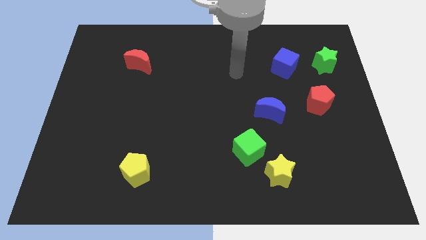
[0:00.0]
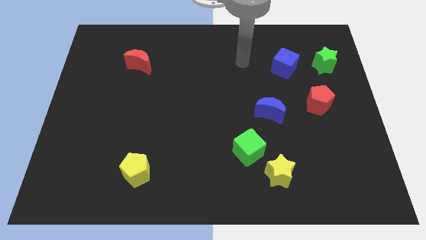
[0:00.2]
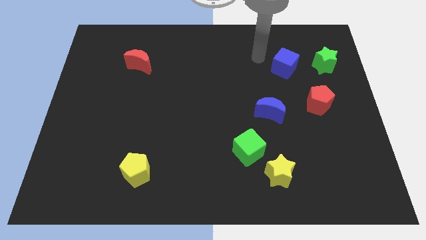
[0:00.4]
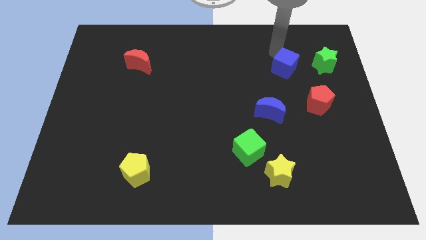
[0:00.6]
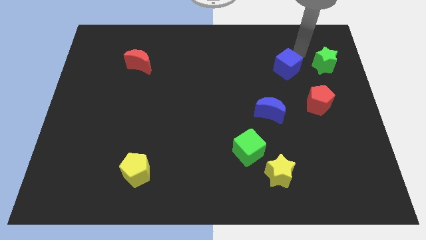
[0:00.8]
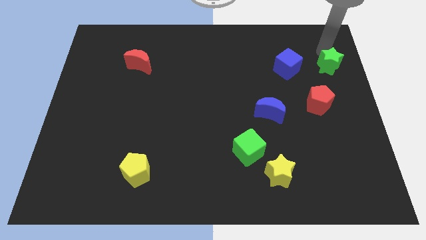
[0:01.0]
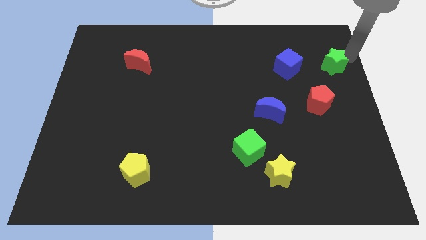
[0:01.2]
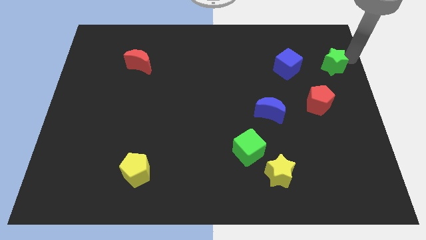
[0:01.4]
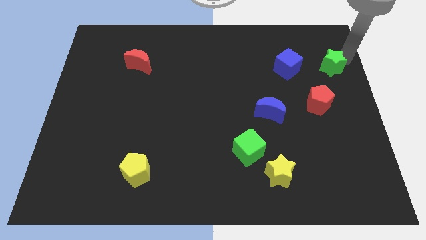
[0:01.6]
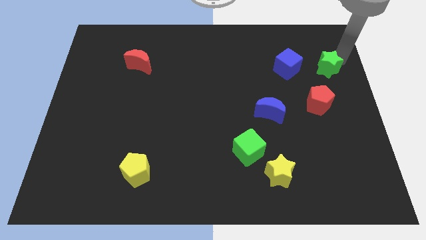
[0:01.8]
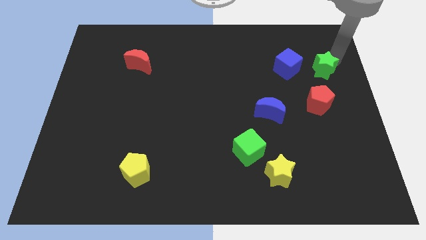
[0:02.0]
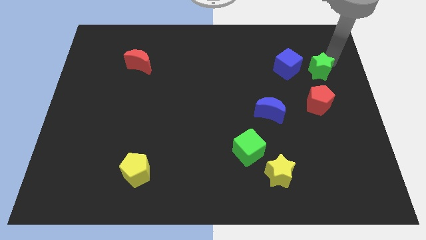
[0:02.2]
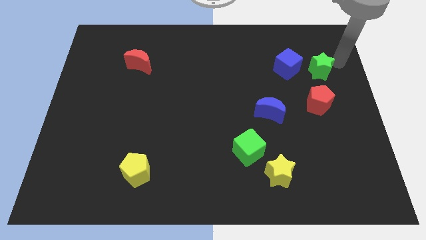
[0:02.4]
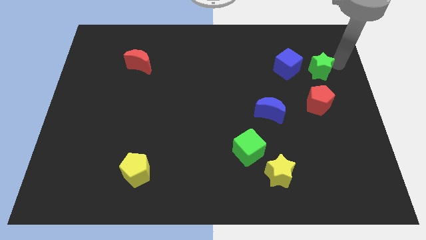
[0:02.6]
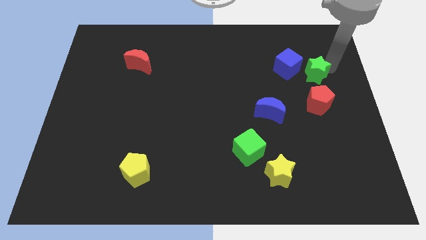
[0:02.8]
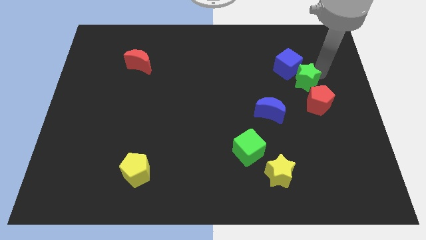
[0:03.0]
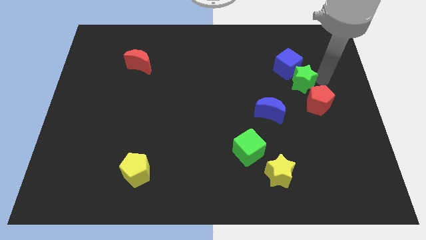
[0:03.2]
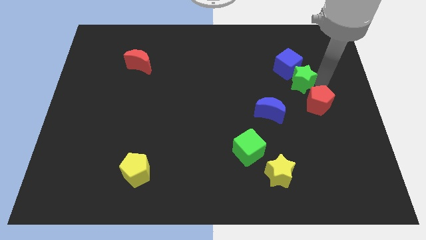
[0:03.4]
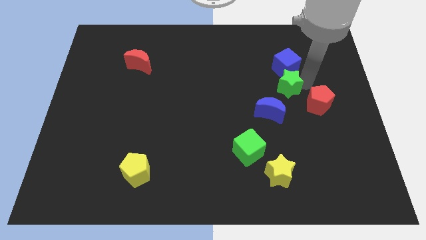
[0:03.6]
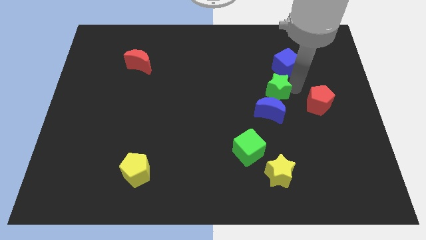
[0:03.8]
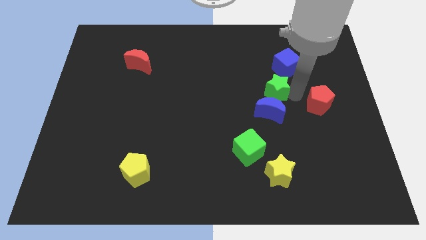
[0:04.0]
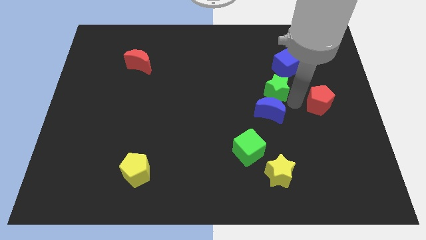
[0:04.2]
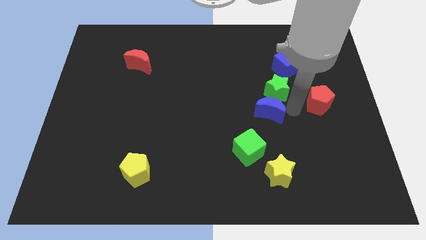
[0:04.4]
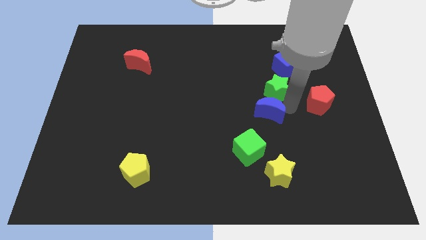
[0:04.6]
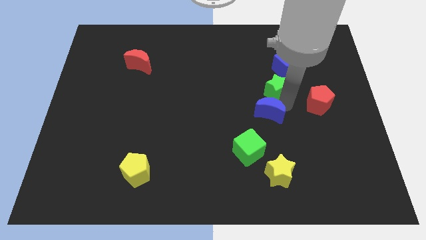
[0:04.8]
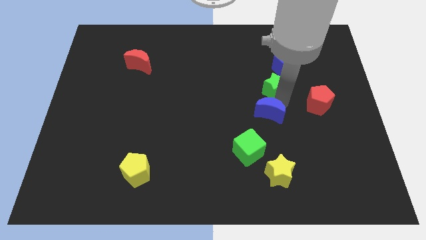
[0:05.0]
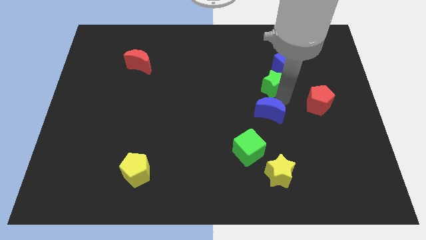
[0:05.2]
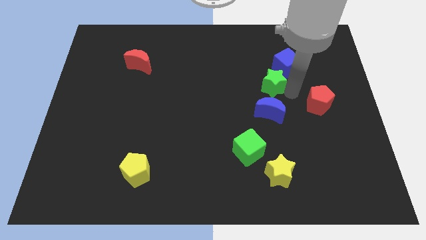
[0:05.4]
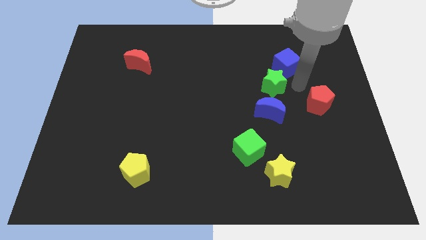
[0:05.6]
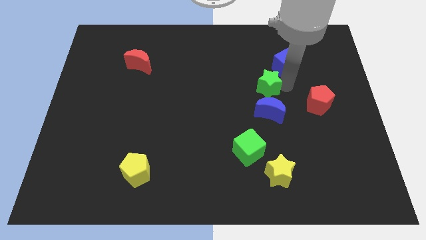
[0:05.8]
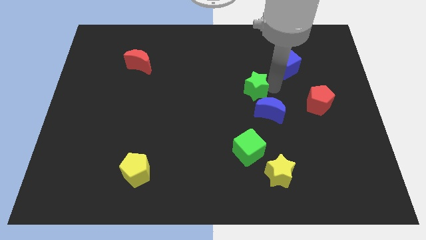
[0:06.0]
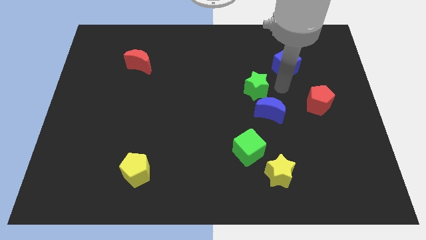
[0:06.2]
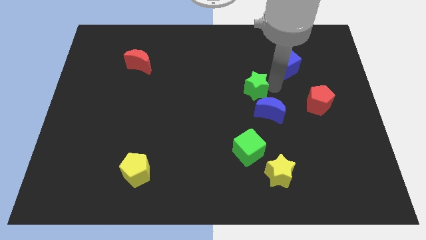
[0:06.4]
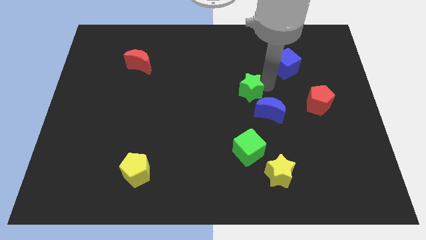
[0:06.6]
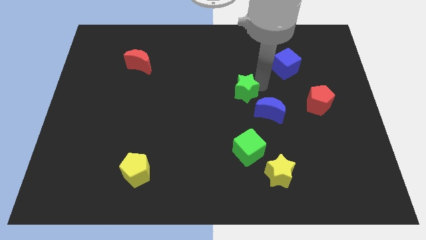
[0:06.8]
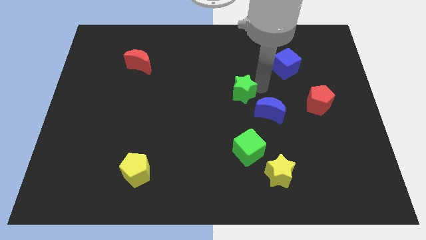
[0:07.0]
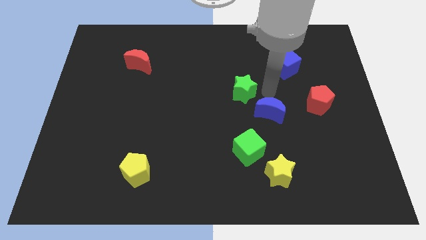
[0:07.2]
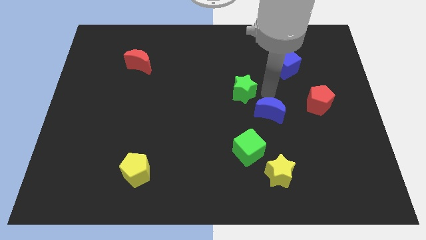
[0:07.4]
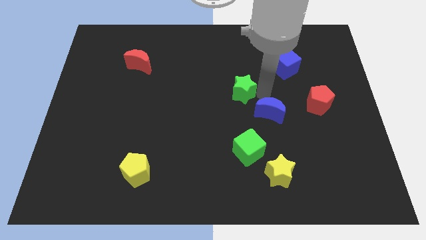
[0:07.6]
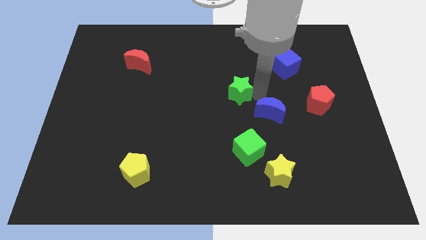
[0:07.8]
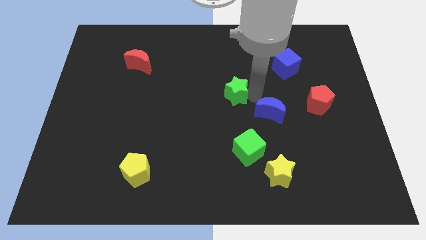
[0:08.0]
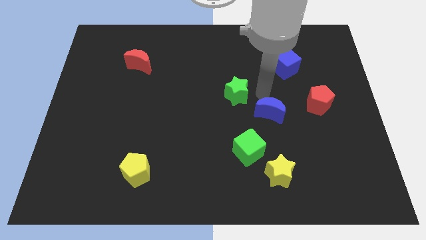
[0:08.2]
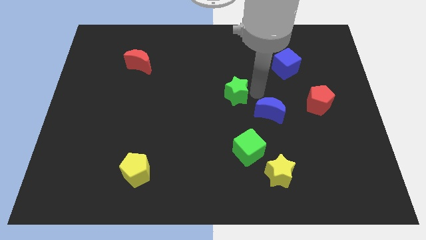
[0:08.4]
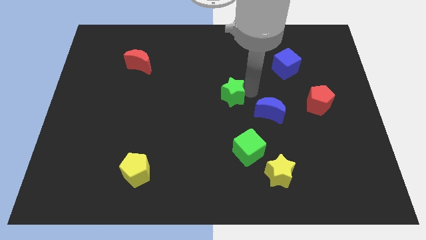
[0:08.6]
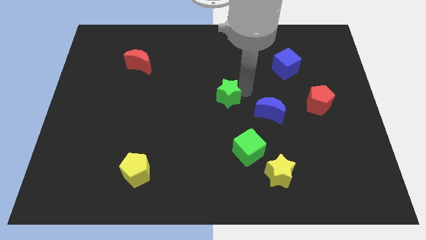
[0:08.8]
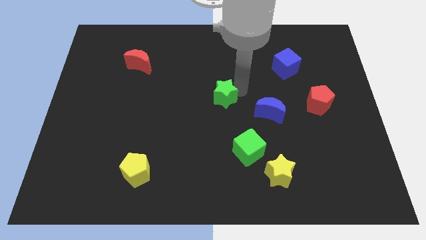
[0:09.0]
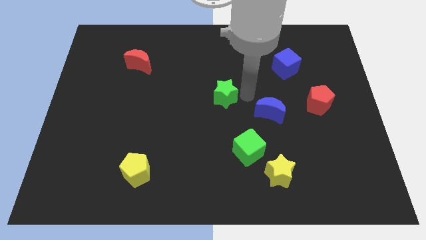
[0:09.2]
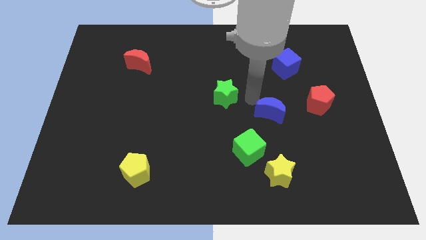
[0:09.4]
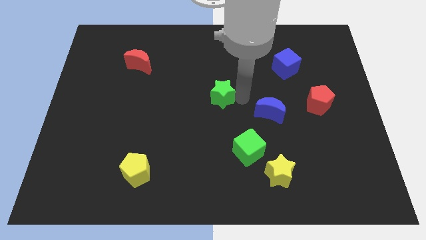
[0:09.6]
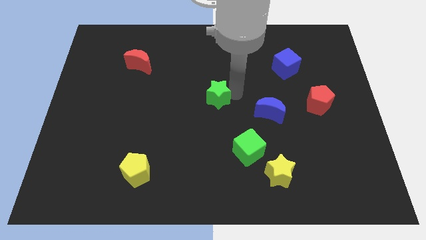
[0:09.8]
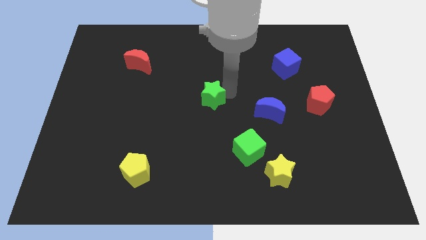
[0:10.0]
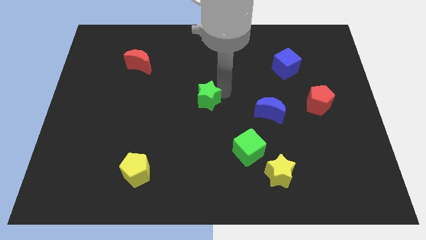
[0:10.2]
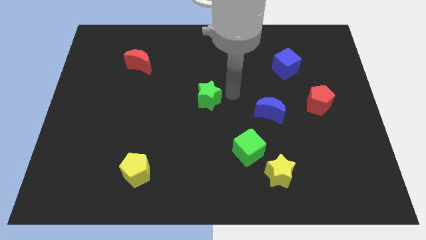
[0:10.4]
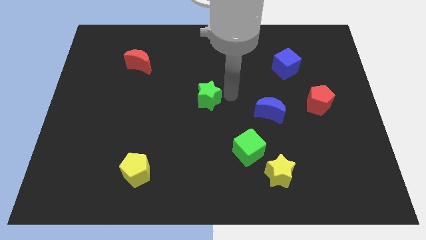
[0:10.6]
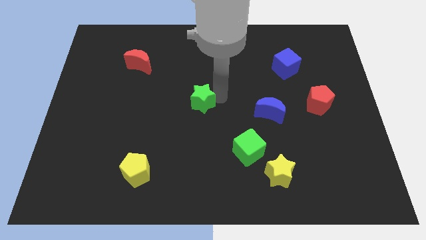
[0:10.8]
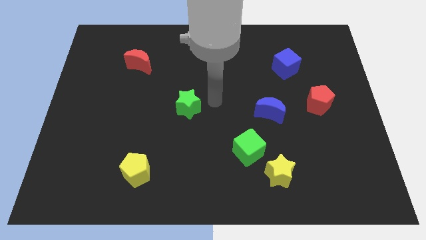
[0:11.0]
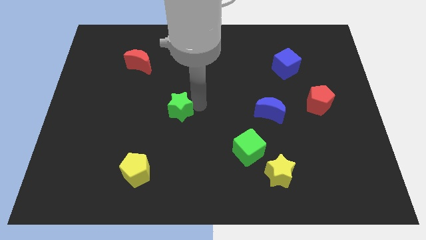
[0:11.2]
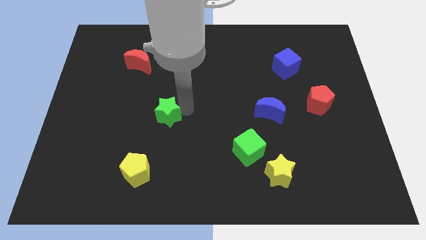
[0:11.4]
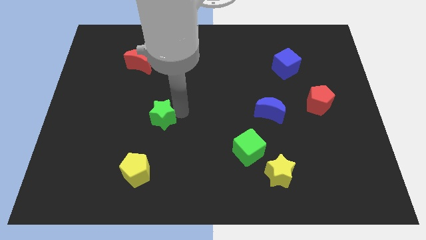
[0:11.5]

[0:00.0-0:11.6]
slide the green star to the top side of the yellow pentagon

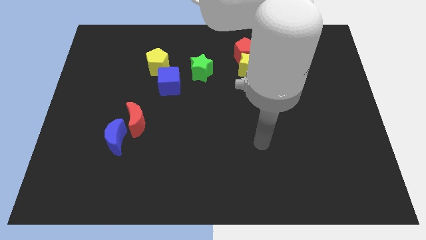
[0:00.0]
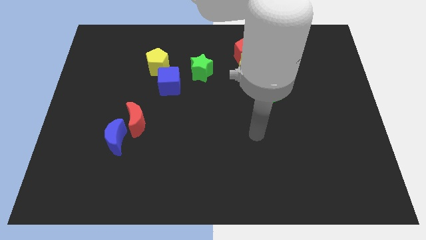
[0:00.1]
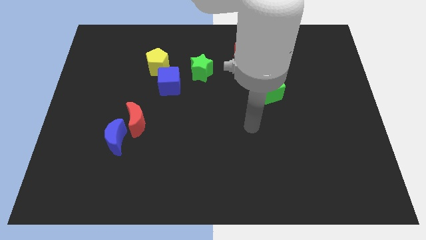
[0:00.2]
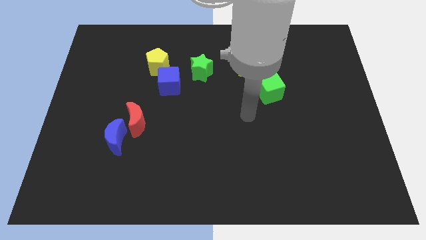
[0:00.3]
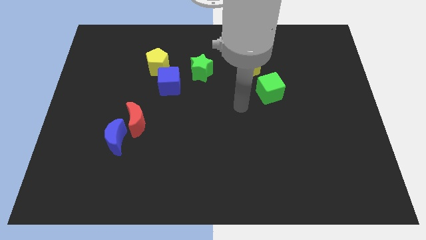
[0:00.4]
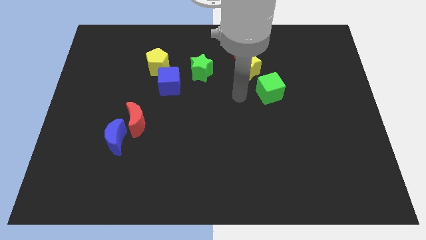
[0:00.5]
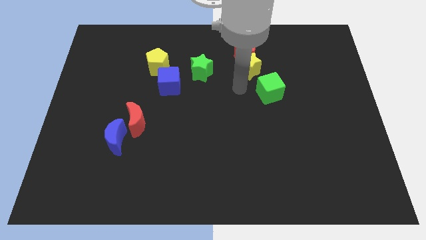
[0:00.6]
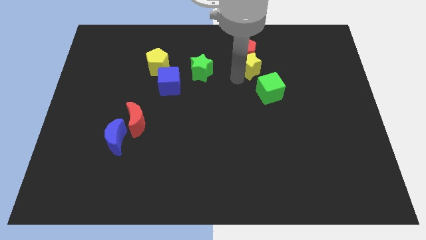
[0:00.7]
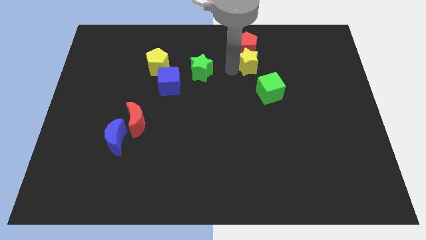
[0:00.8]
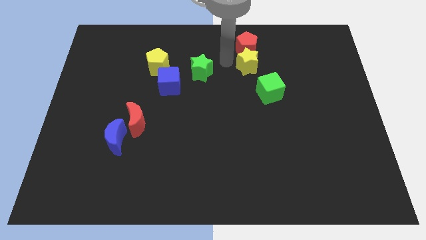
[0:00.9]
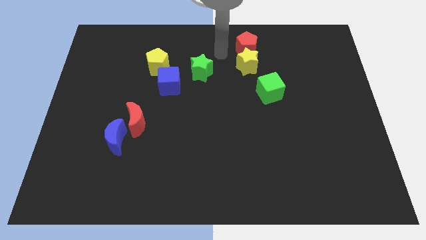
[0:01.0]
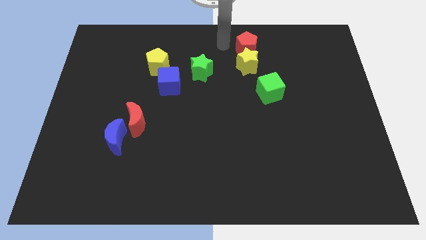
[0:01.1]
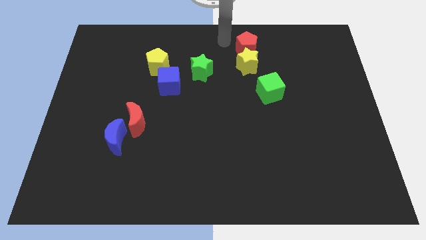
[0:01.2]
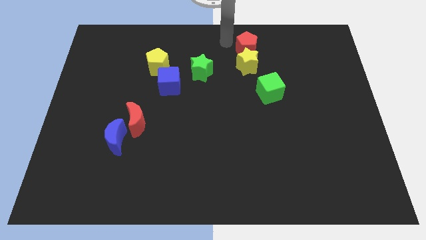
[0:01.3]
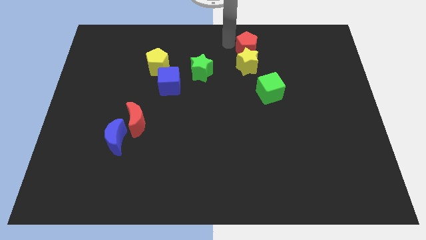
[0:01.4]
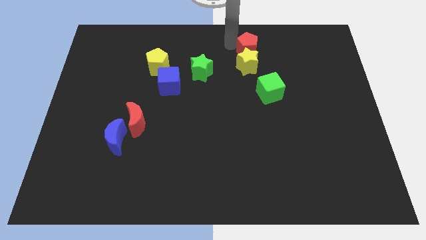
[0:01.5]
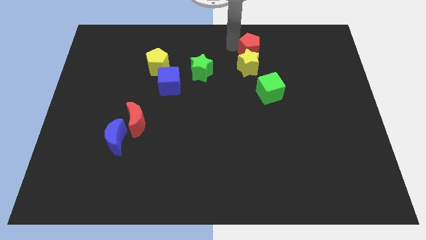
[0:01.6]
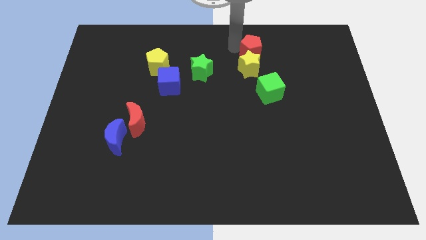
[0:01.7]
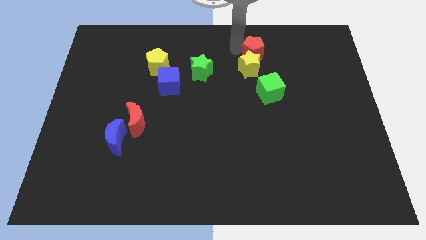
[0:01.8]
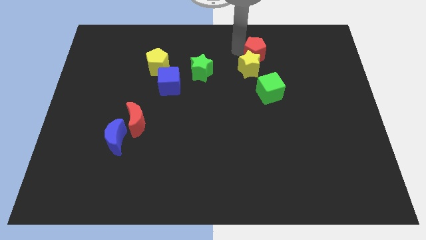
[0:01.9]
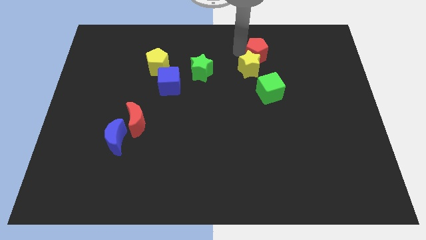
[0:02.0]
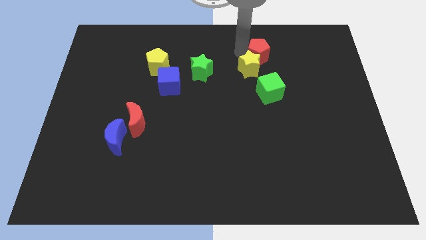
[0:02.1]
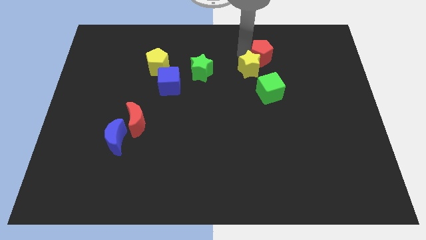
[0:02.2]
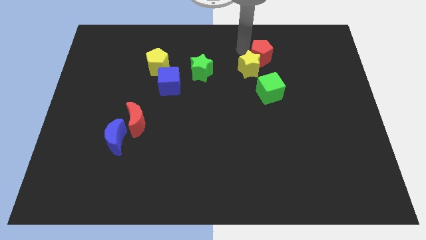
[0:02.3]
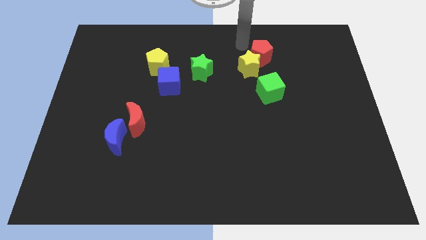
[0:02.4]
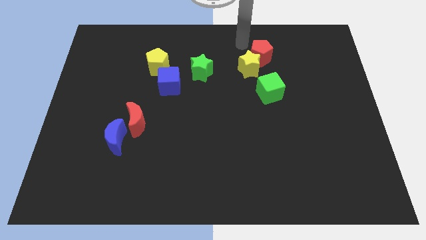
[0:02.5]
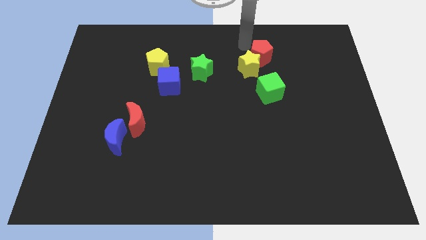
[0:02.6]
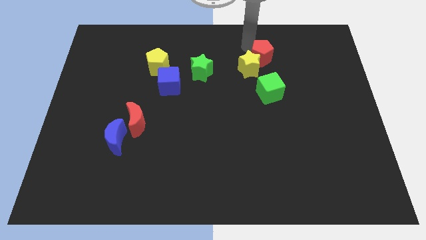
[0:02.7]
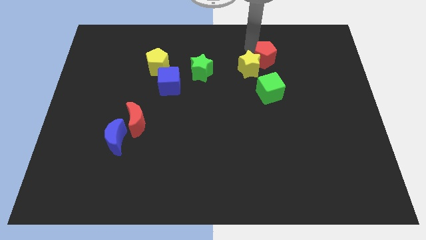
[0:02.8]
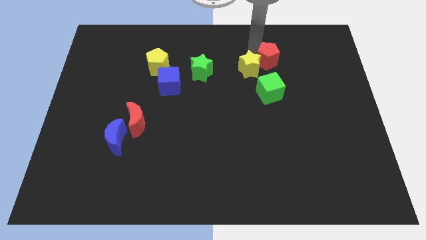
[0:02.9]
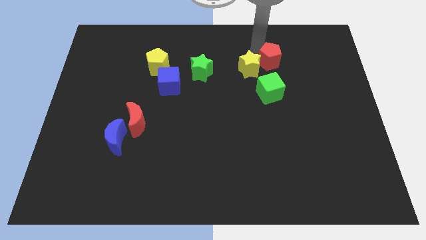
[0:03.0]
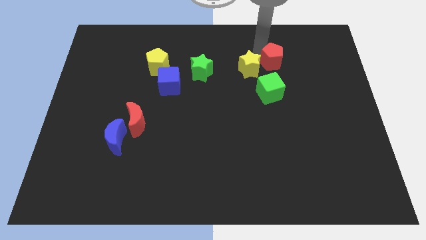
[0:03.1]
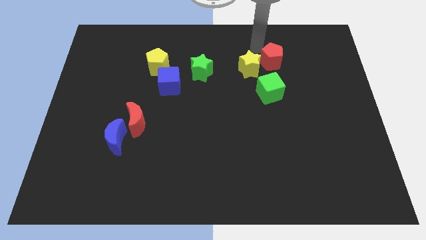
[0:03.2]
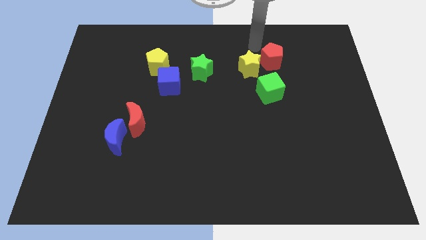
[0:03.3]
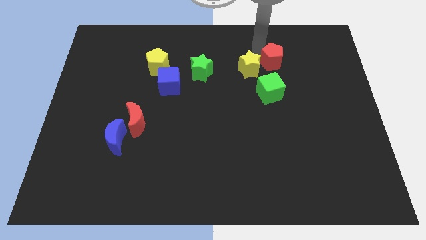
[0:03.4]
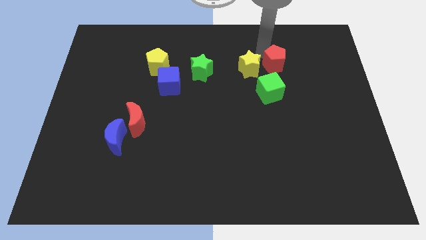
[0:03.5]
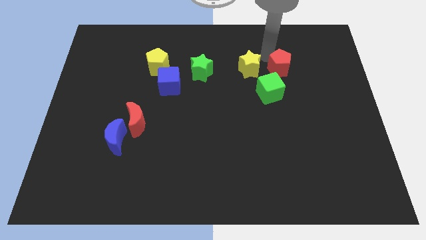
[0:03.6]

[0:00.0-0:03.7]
move the red pentagon to the top right side of the green cube
